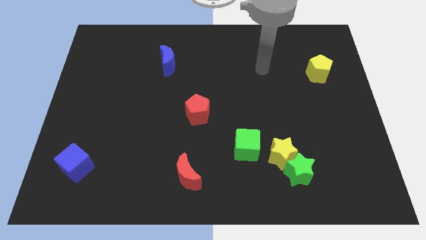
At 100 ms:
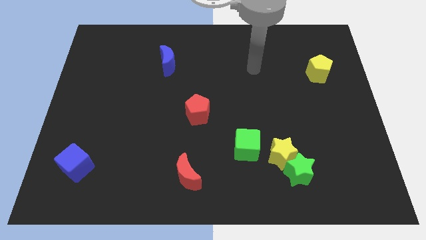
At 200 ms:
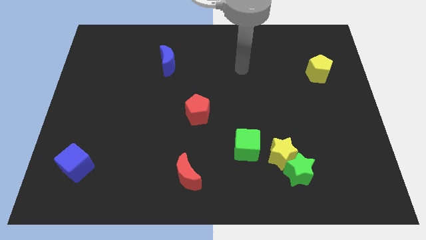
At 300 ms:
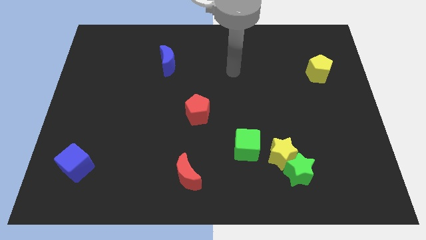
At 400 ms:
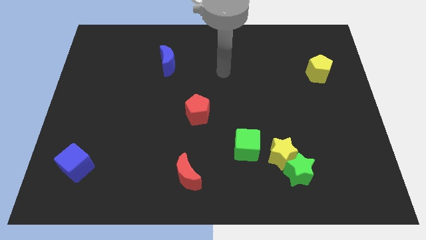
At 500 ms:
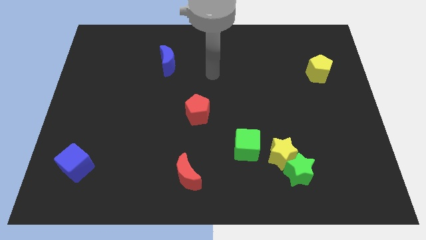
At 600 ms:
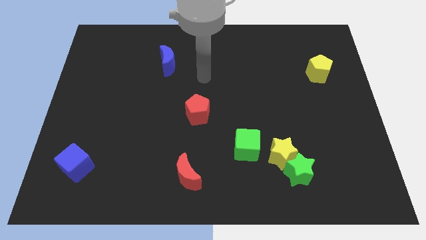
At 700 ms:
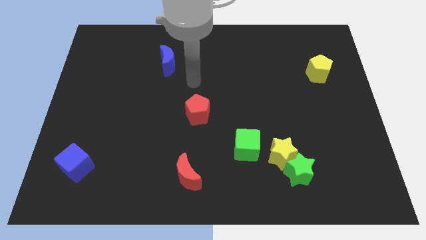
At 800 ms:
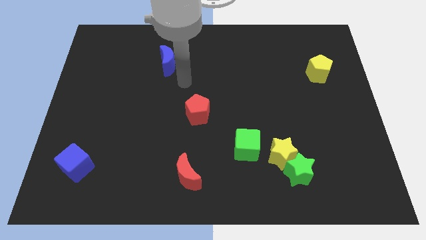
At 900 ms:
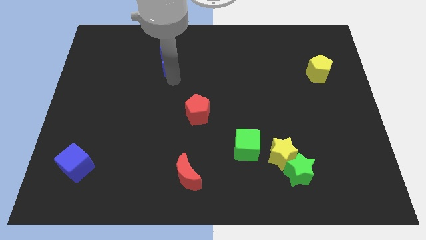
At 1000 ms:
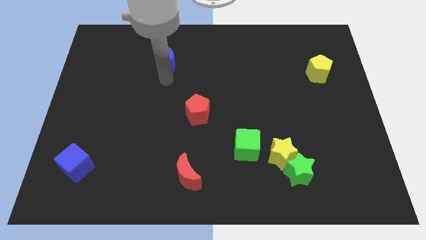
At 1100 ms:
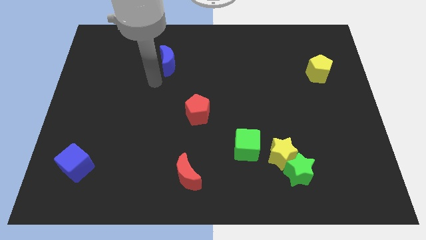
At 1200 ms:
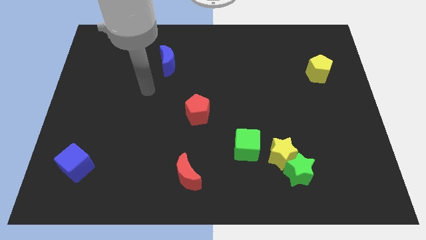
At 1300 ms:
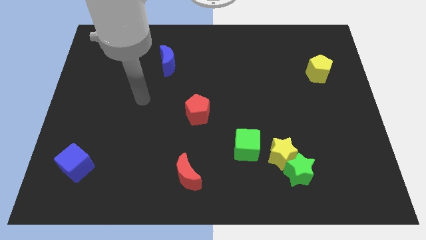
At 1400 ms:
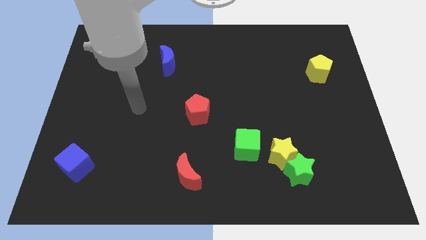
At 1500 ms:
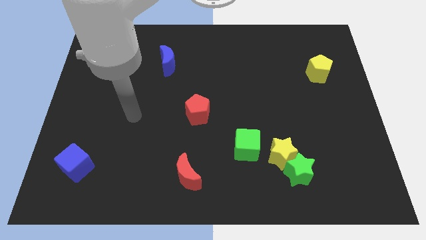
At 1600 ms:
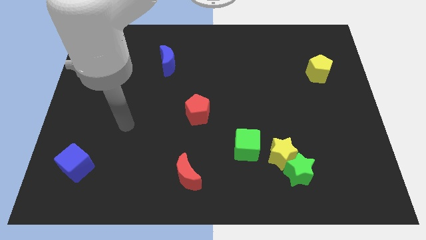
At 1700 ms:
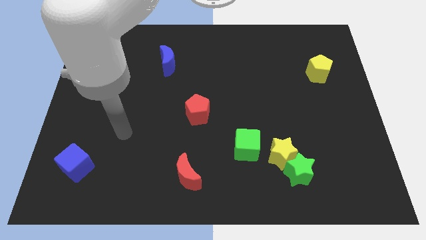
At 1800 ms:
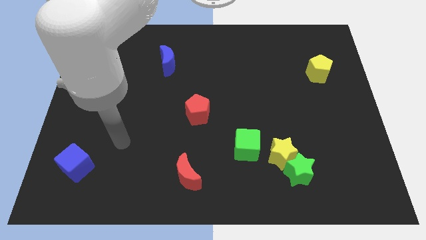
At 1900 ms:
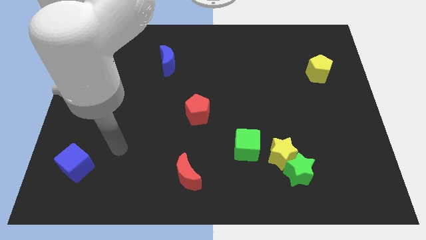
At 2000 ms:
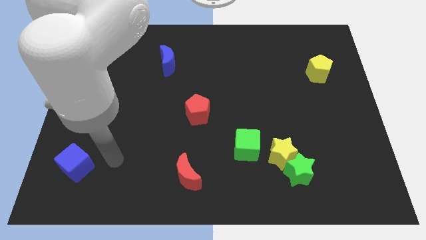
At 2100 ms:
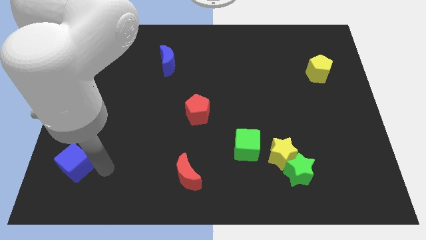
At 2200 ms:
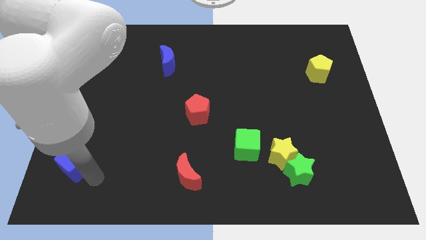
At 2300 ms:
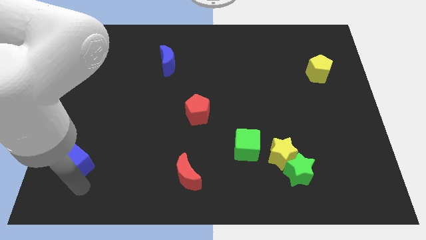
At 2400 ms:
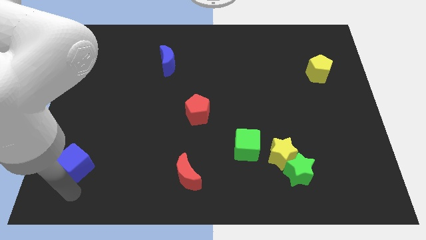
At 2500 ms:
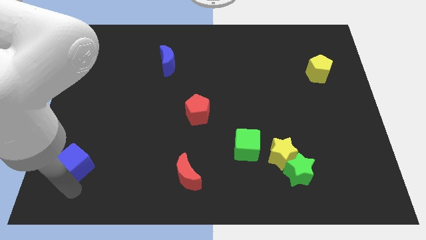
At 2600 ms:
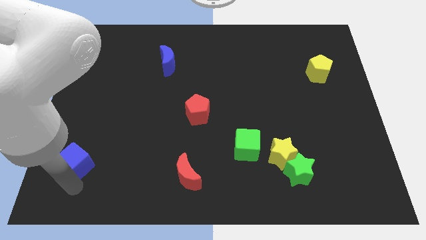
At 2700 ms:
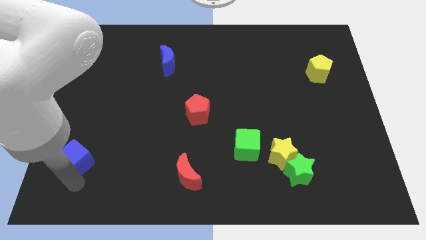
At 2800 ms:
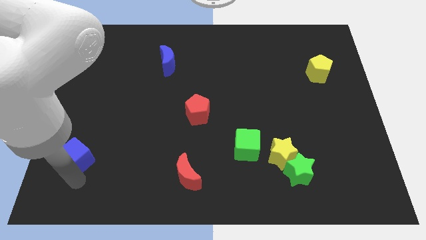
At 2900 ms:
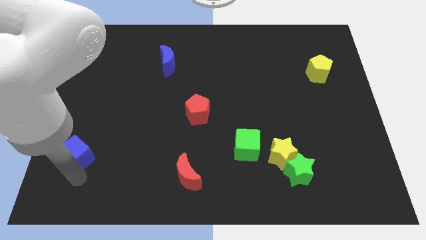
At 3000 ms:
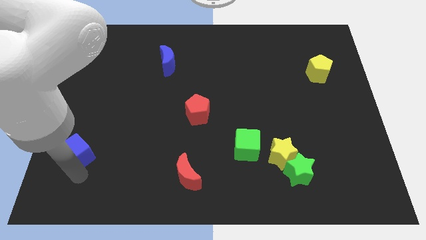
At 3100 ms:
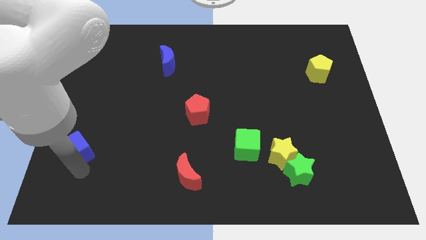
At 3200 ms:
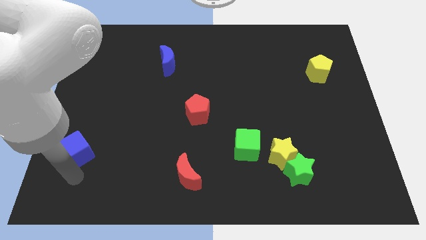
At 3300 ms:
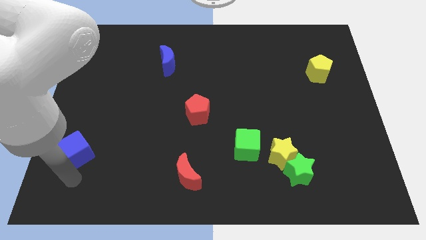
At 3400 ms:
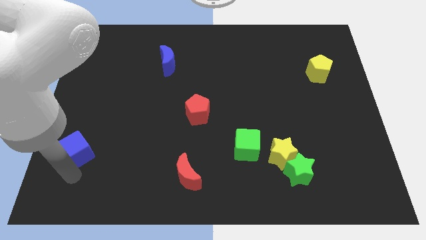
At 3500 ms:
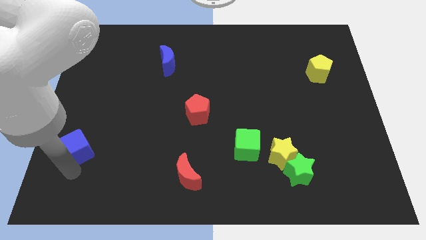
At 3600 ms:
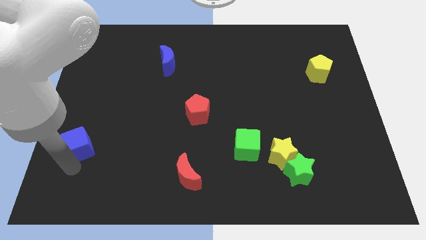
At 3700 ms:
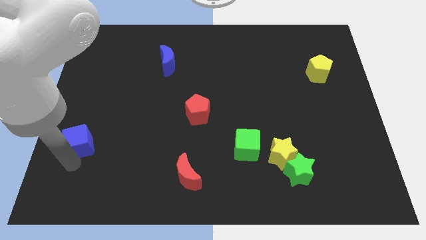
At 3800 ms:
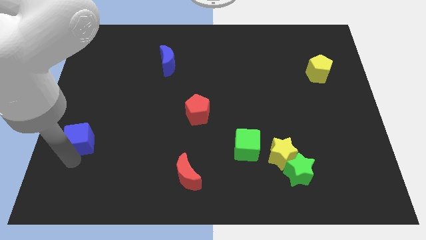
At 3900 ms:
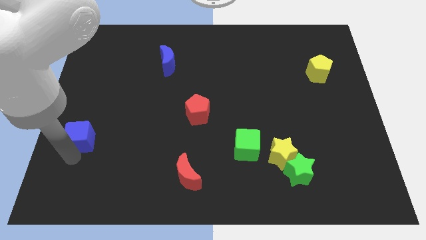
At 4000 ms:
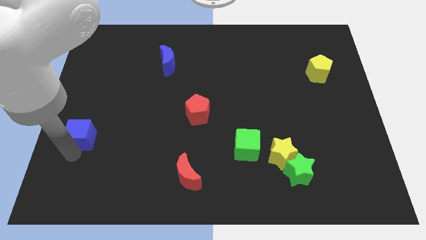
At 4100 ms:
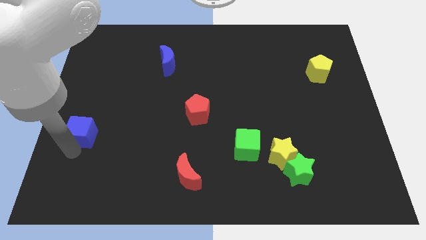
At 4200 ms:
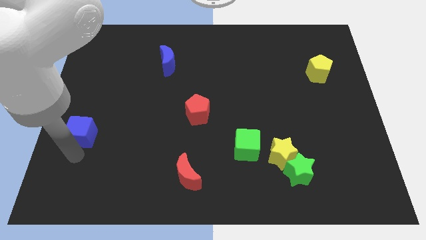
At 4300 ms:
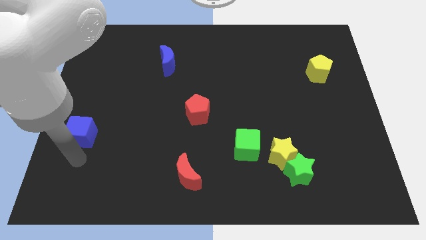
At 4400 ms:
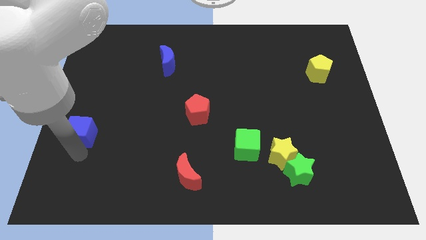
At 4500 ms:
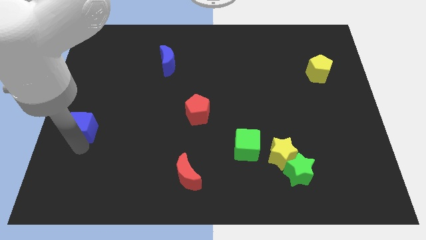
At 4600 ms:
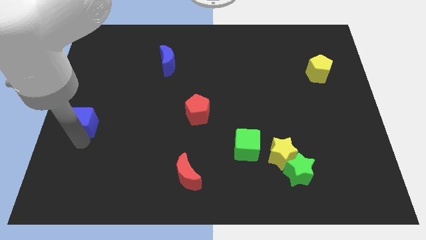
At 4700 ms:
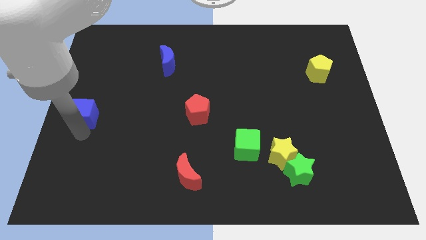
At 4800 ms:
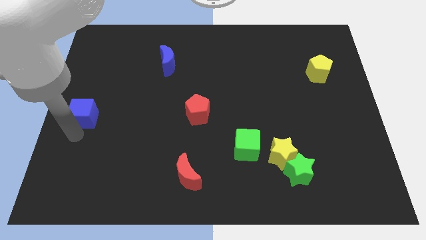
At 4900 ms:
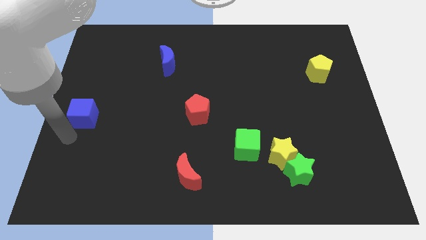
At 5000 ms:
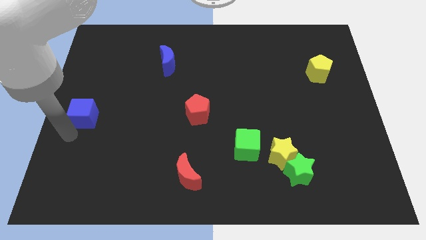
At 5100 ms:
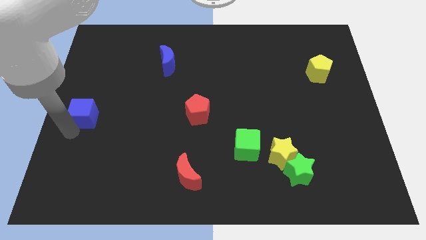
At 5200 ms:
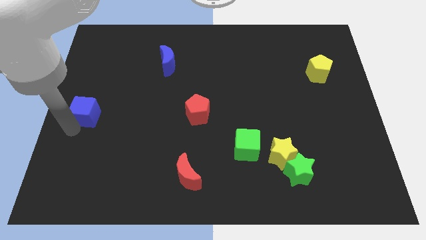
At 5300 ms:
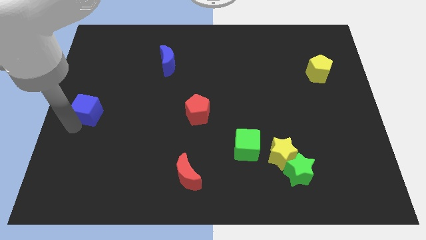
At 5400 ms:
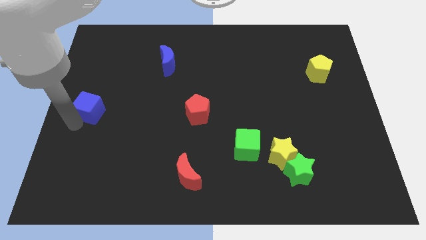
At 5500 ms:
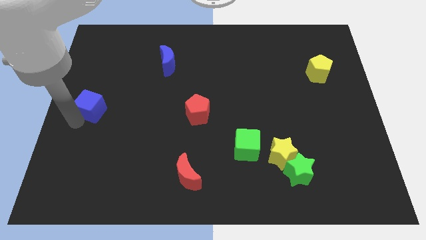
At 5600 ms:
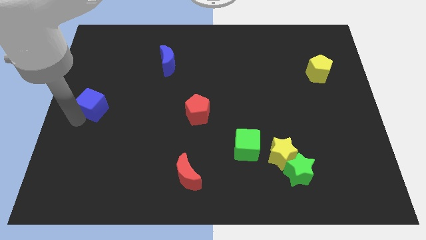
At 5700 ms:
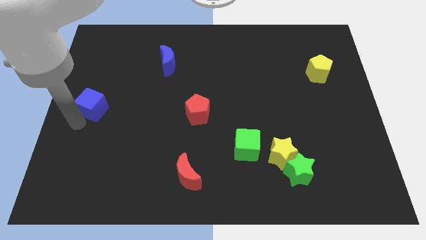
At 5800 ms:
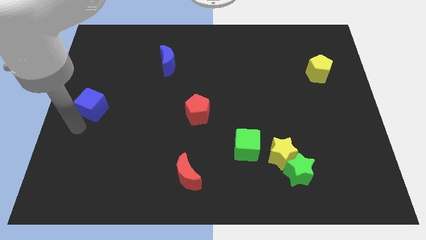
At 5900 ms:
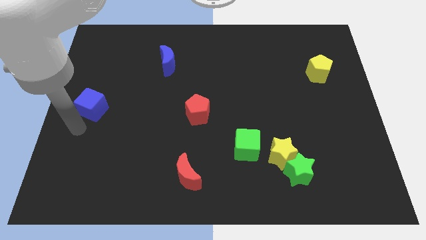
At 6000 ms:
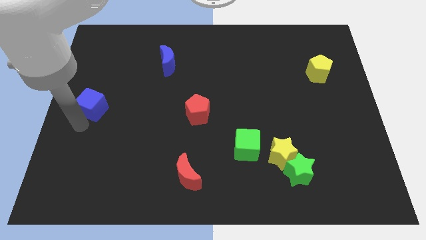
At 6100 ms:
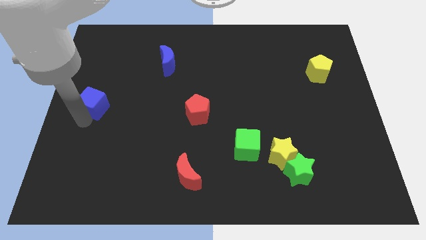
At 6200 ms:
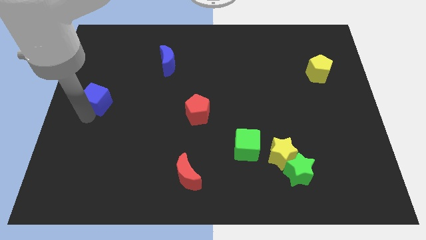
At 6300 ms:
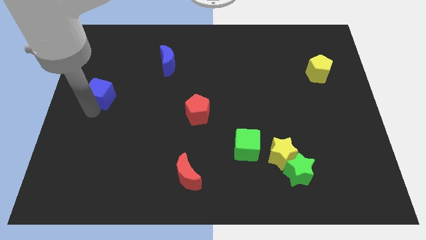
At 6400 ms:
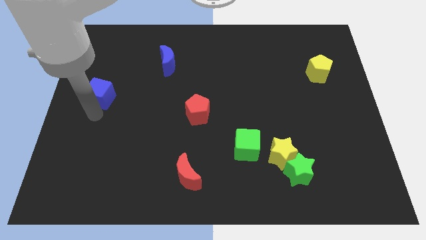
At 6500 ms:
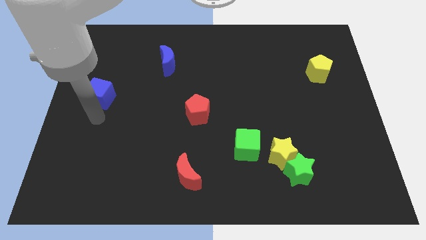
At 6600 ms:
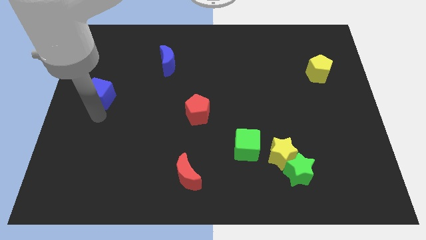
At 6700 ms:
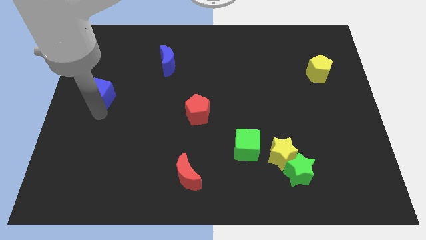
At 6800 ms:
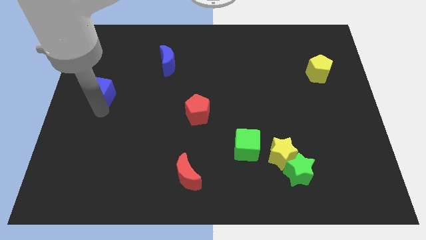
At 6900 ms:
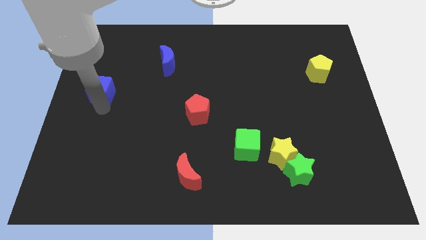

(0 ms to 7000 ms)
slide the blue cube up

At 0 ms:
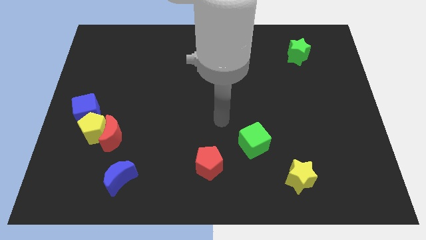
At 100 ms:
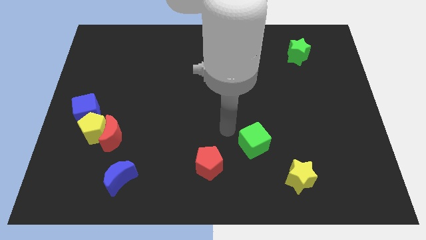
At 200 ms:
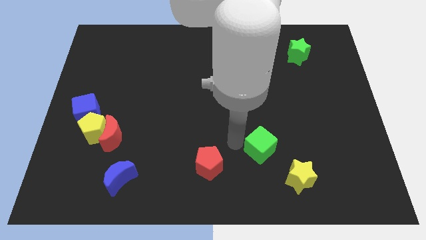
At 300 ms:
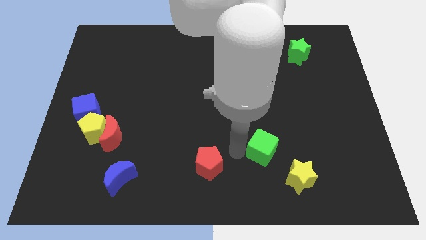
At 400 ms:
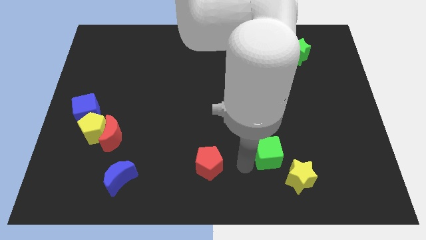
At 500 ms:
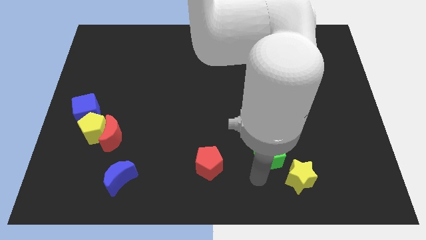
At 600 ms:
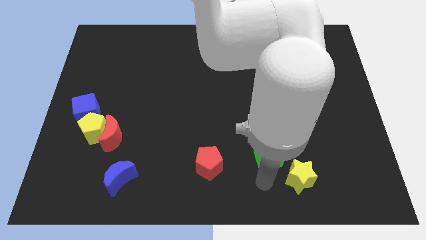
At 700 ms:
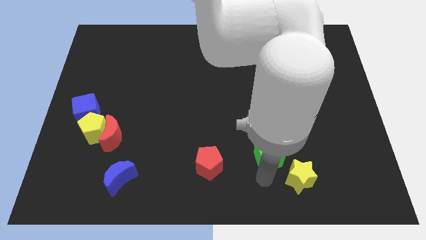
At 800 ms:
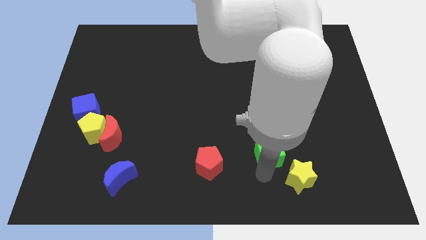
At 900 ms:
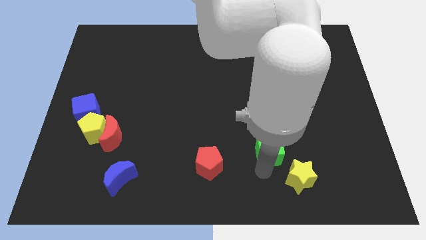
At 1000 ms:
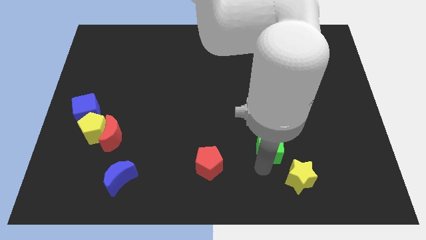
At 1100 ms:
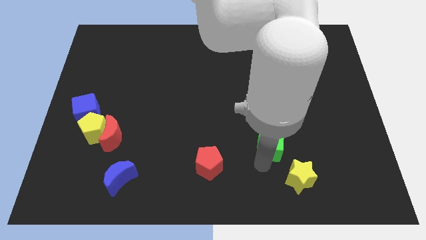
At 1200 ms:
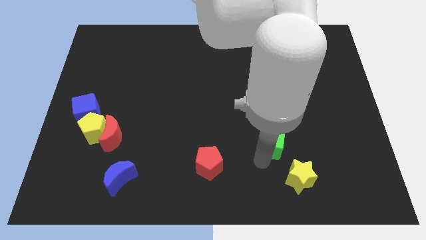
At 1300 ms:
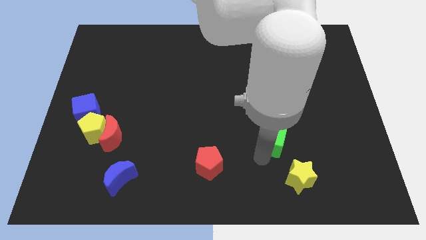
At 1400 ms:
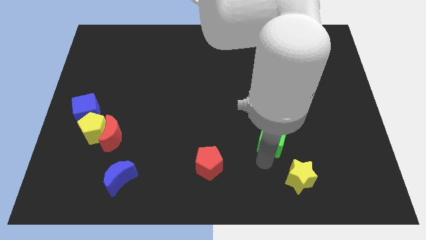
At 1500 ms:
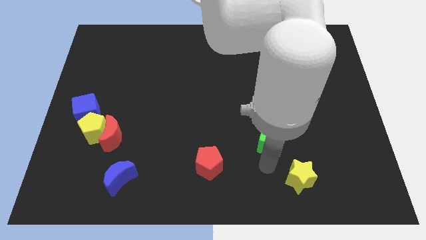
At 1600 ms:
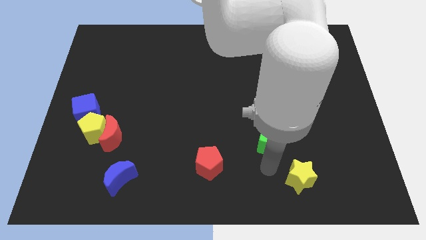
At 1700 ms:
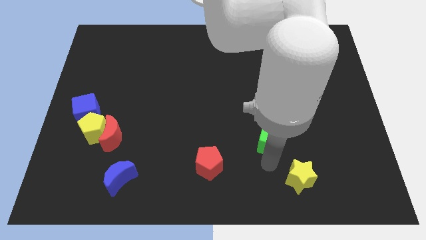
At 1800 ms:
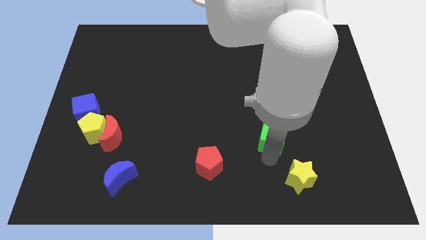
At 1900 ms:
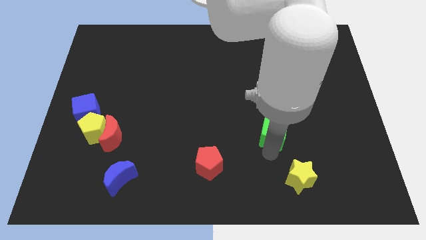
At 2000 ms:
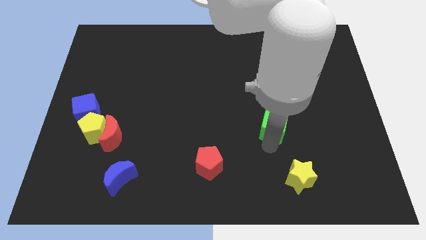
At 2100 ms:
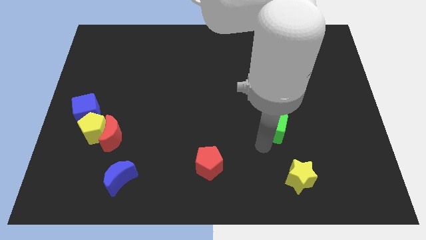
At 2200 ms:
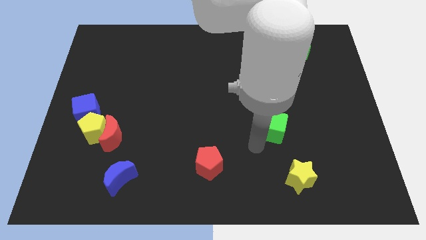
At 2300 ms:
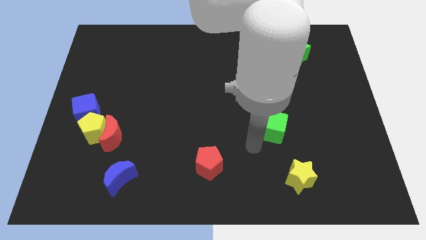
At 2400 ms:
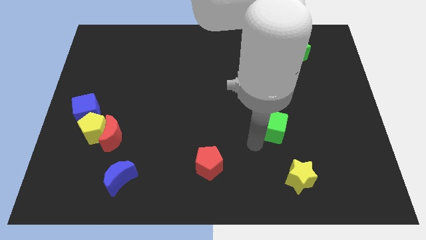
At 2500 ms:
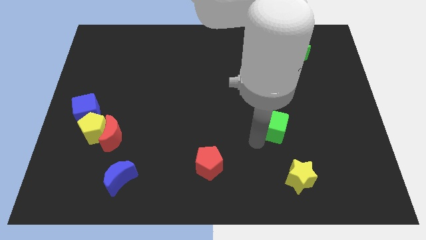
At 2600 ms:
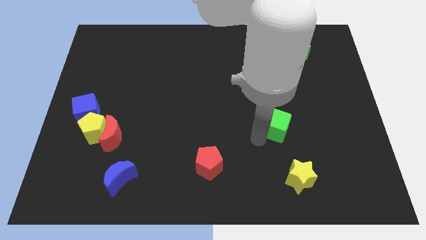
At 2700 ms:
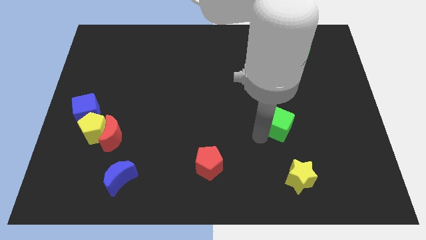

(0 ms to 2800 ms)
move the green cube a little up and right
